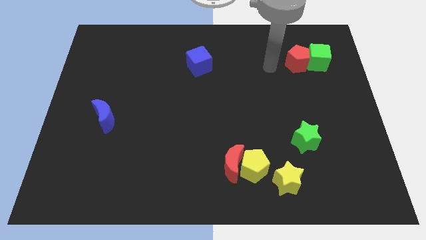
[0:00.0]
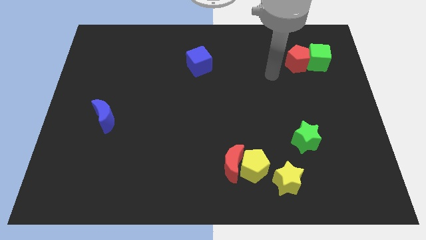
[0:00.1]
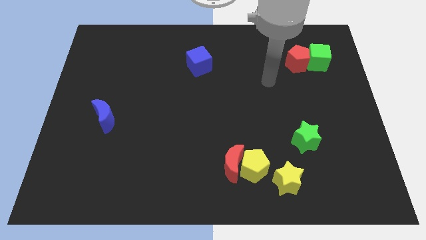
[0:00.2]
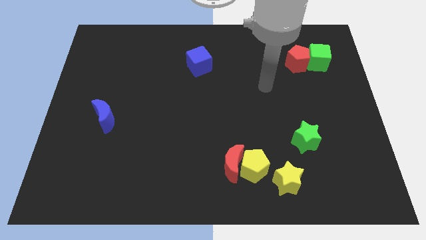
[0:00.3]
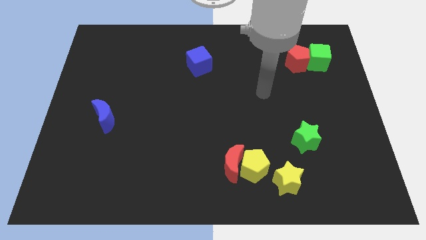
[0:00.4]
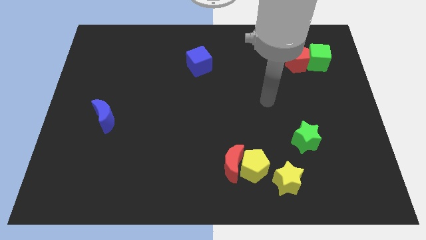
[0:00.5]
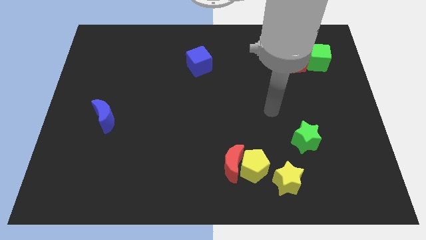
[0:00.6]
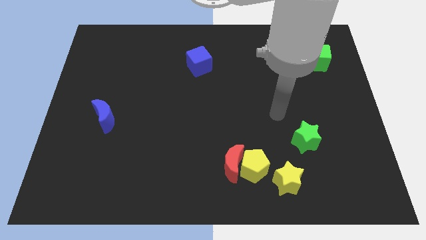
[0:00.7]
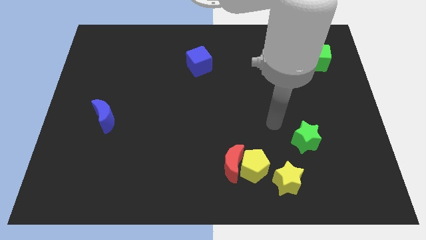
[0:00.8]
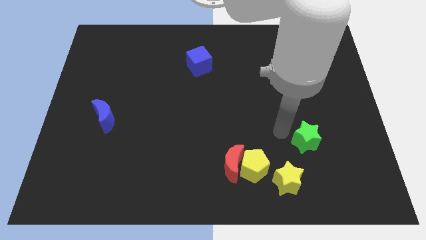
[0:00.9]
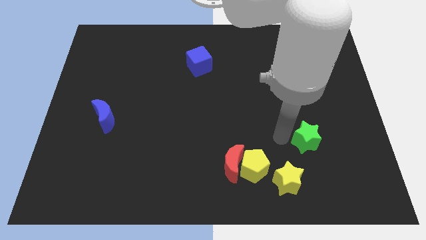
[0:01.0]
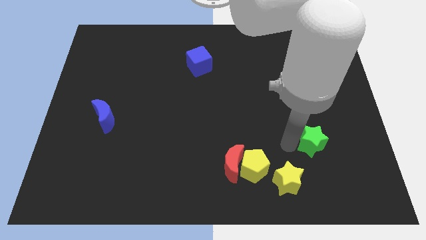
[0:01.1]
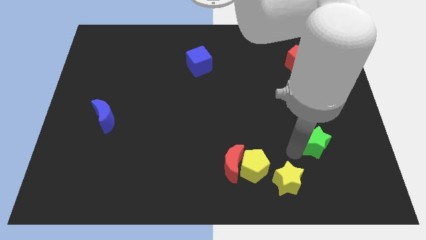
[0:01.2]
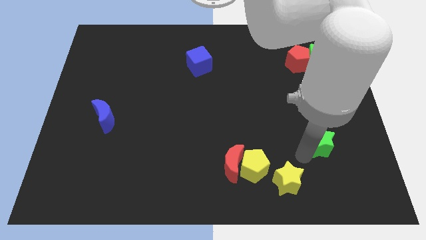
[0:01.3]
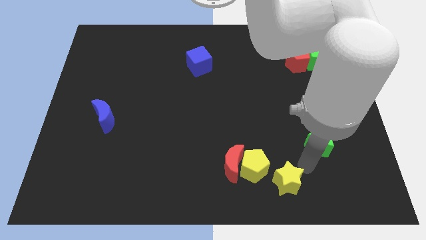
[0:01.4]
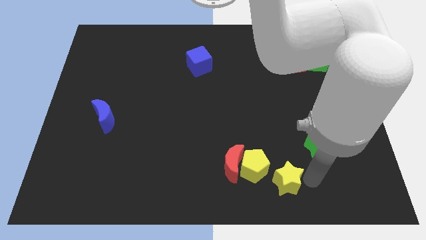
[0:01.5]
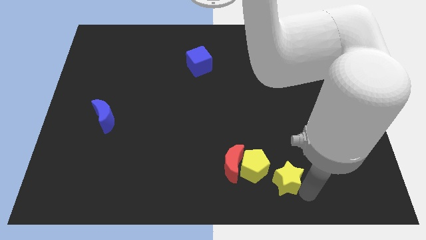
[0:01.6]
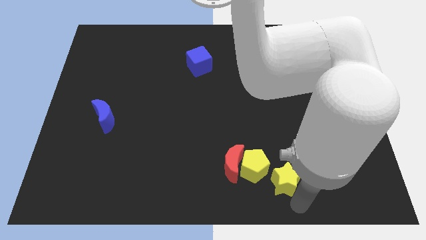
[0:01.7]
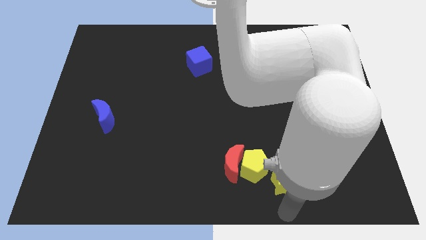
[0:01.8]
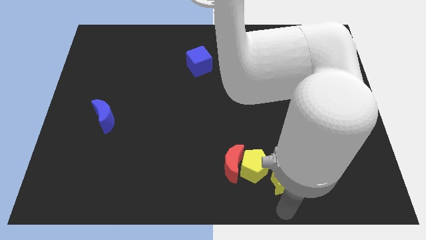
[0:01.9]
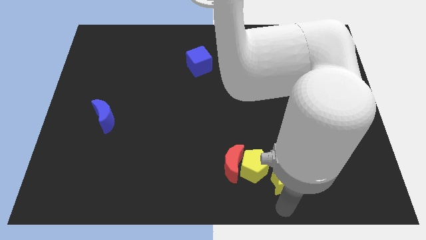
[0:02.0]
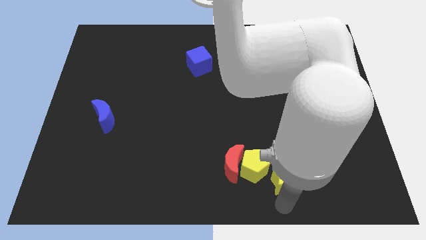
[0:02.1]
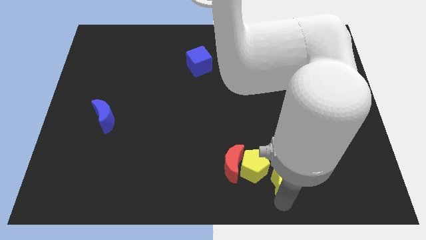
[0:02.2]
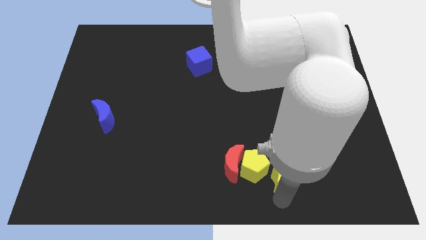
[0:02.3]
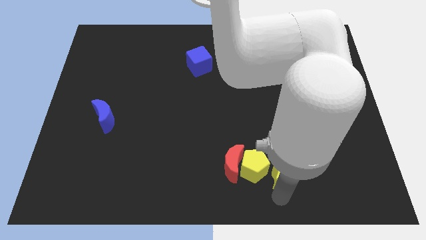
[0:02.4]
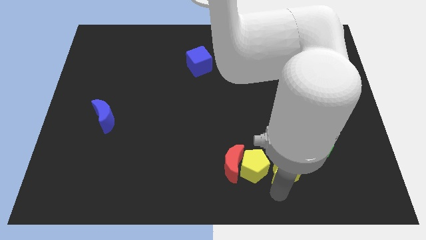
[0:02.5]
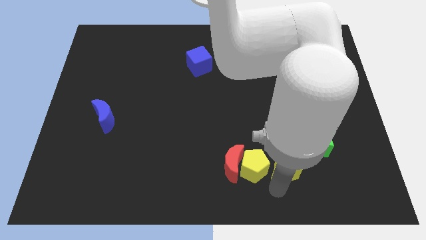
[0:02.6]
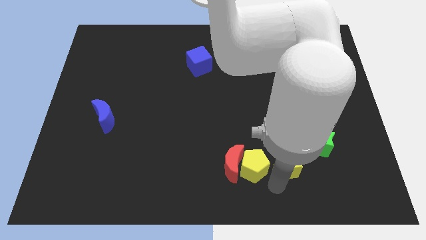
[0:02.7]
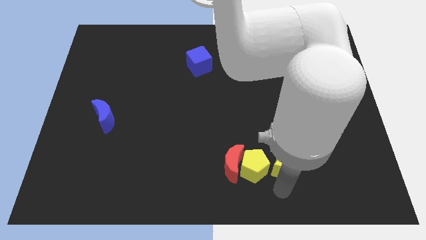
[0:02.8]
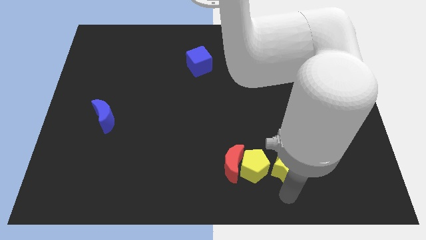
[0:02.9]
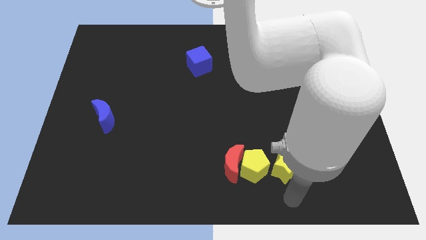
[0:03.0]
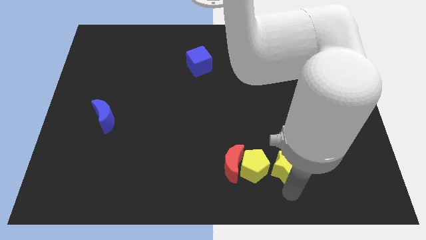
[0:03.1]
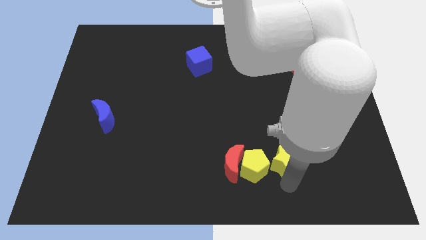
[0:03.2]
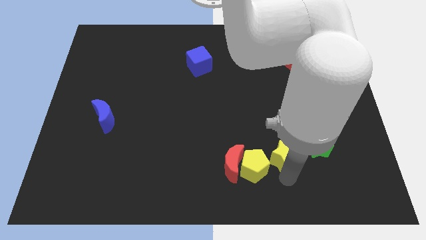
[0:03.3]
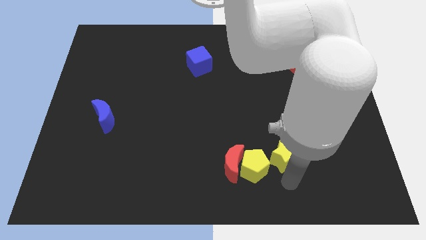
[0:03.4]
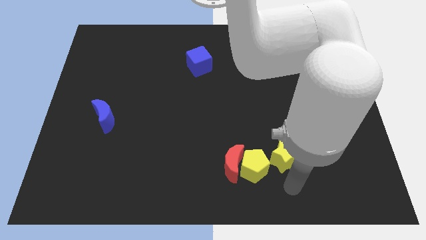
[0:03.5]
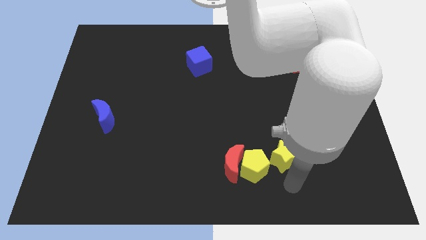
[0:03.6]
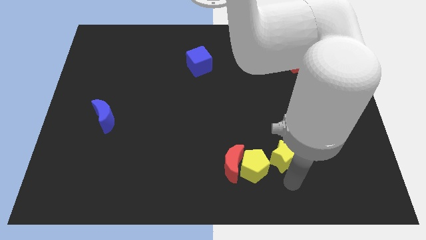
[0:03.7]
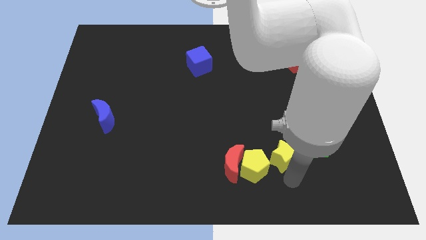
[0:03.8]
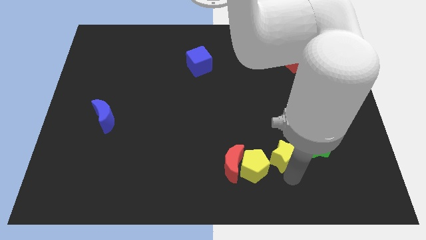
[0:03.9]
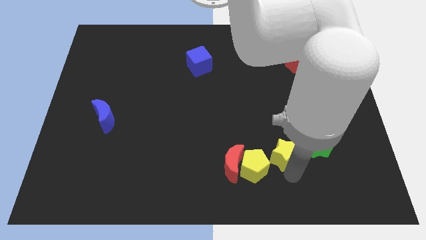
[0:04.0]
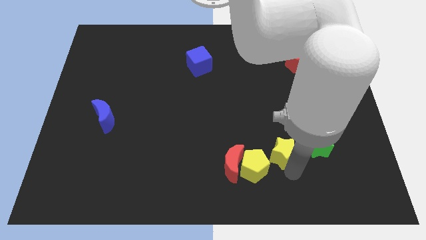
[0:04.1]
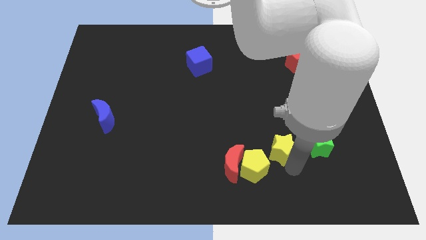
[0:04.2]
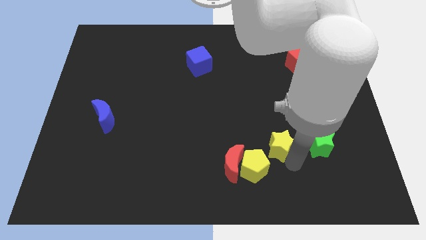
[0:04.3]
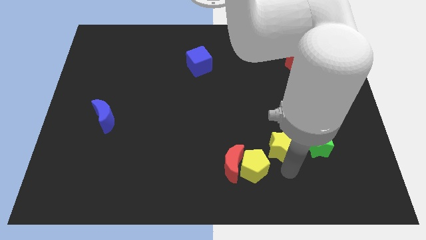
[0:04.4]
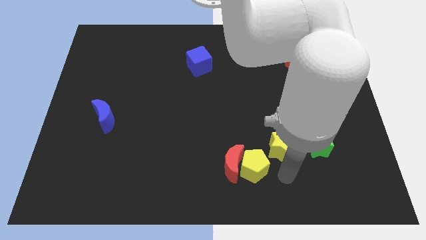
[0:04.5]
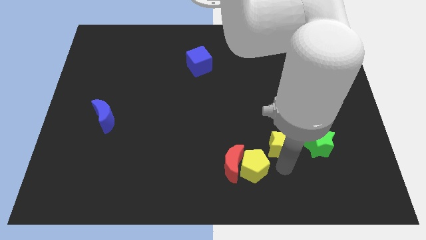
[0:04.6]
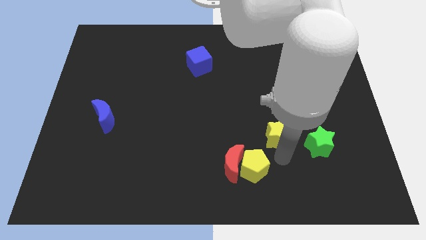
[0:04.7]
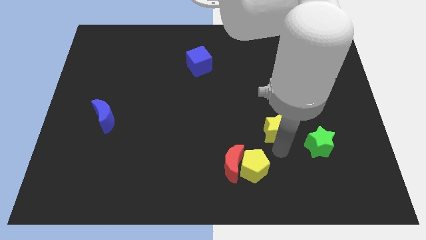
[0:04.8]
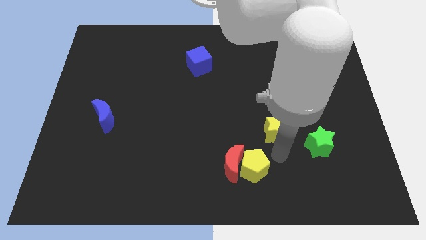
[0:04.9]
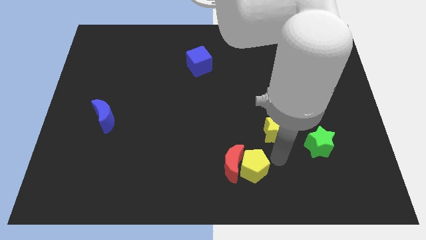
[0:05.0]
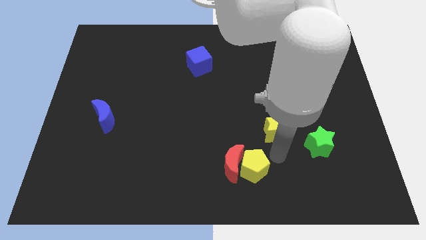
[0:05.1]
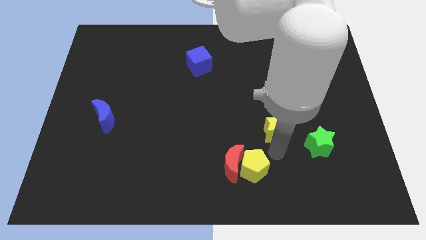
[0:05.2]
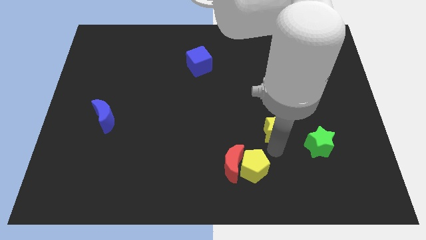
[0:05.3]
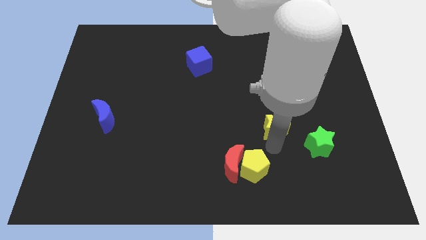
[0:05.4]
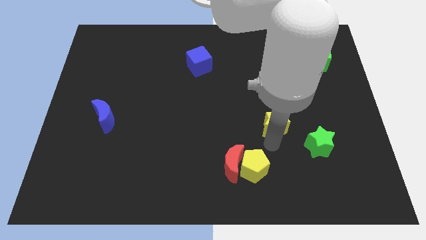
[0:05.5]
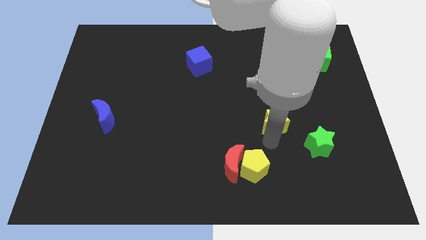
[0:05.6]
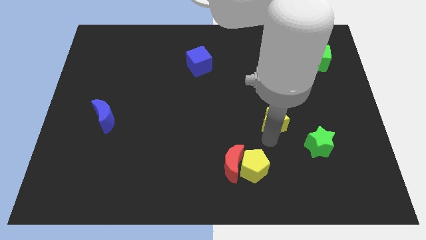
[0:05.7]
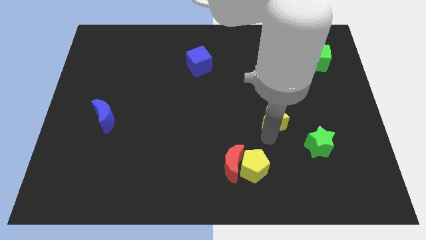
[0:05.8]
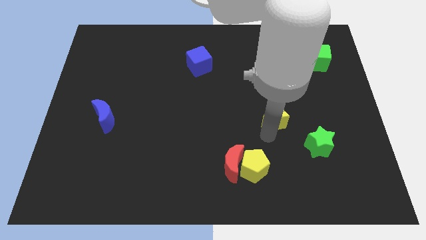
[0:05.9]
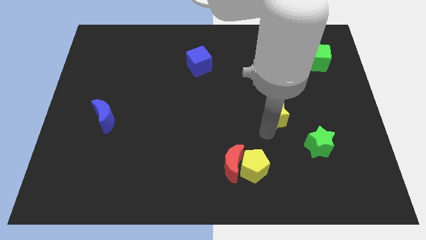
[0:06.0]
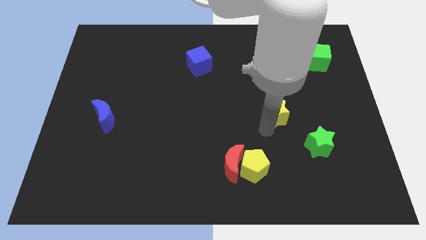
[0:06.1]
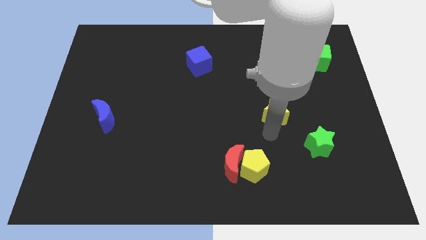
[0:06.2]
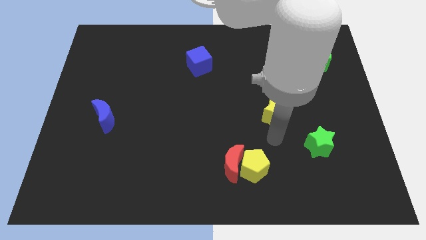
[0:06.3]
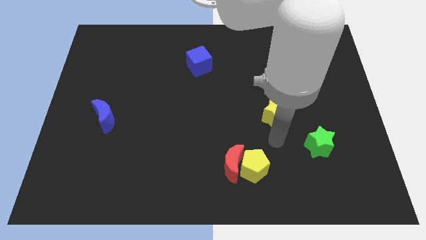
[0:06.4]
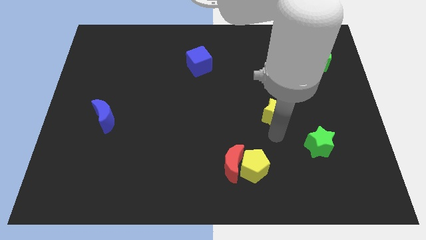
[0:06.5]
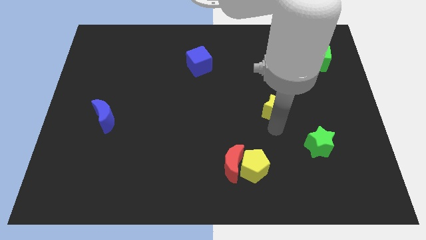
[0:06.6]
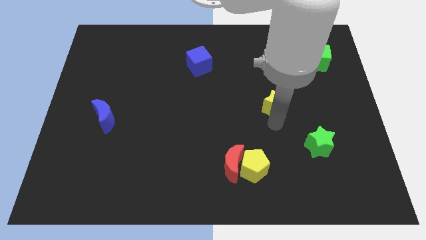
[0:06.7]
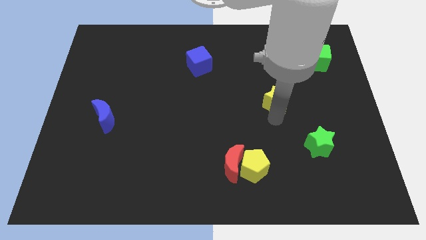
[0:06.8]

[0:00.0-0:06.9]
push the yellow star up

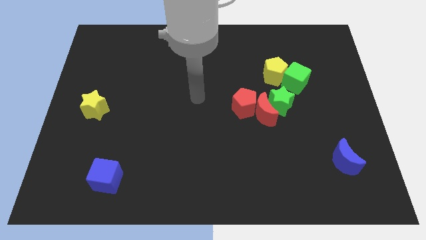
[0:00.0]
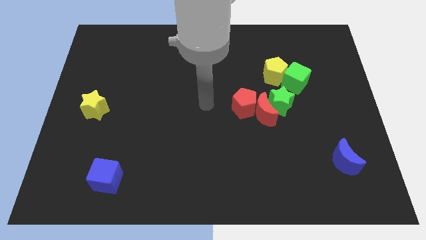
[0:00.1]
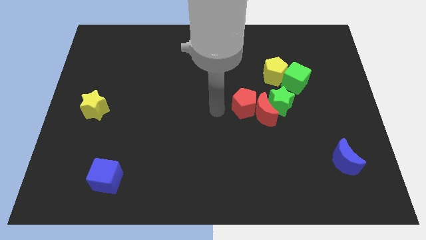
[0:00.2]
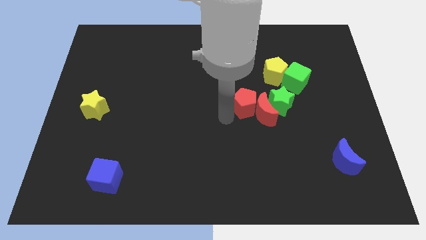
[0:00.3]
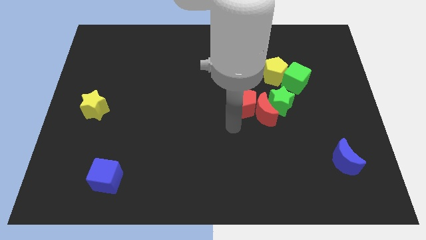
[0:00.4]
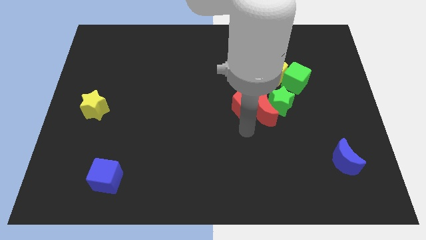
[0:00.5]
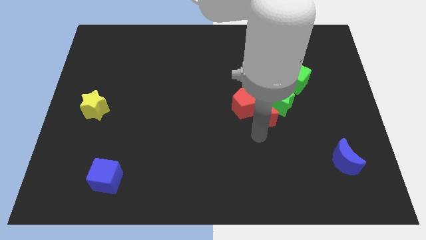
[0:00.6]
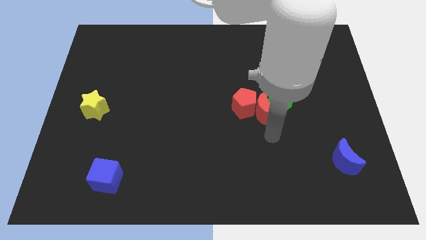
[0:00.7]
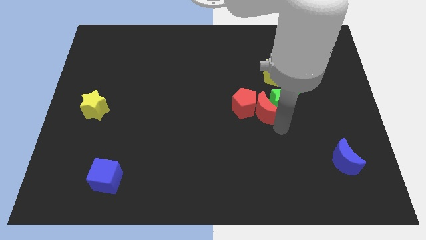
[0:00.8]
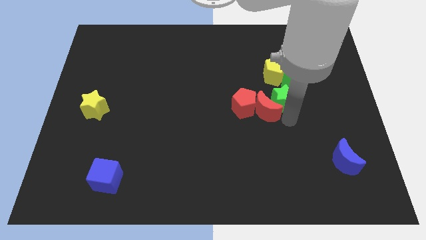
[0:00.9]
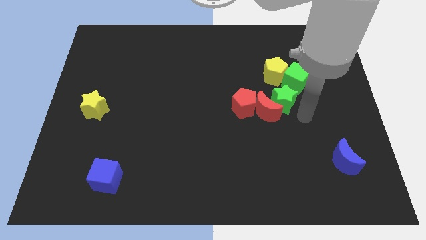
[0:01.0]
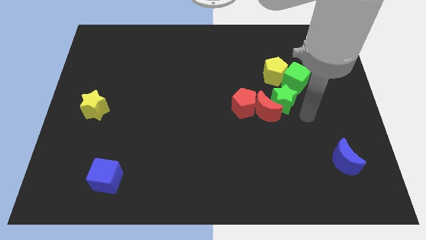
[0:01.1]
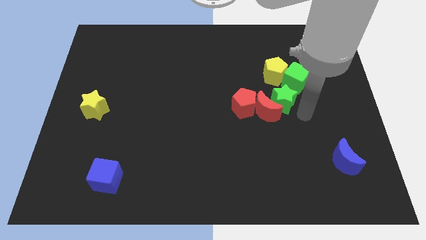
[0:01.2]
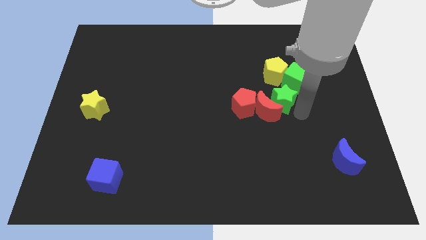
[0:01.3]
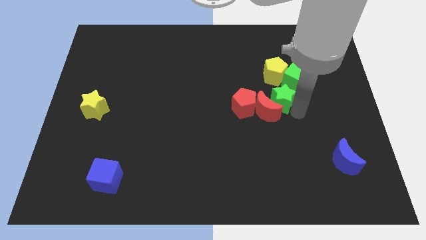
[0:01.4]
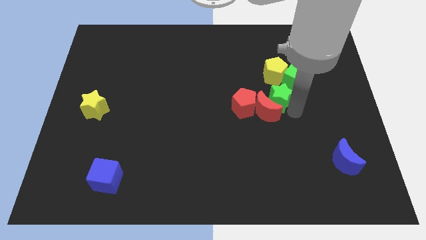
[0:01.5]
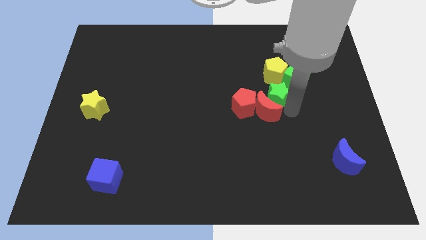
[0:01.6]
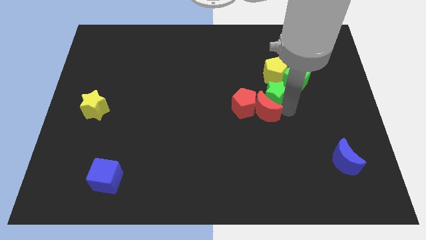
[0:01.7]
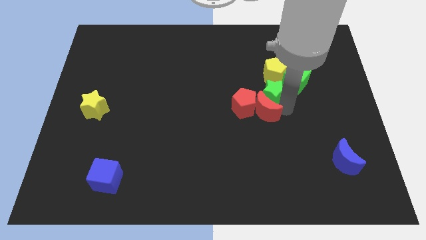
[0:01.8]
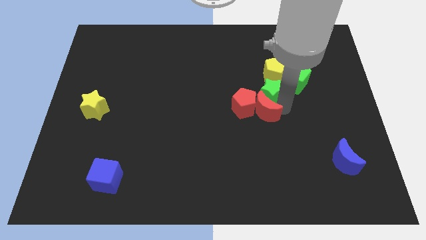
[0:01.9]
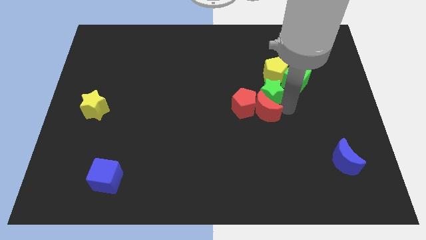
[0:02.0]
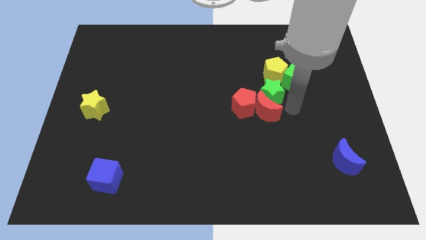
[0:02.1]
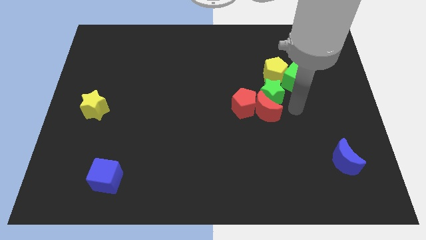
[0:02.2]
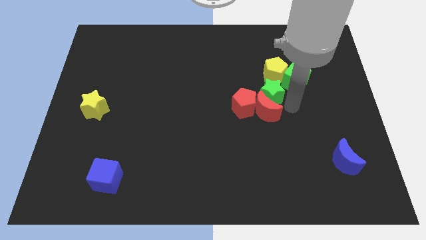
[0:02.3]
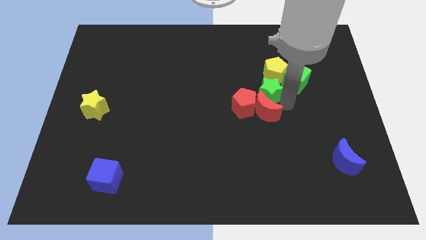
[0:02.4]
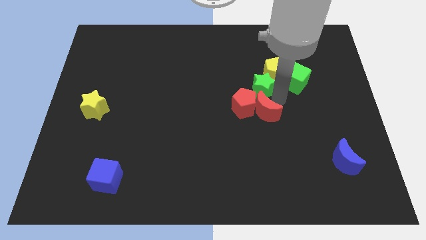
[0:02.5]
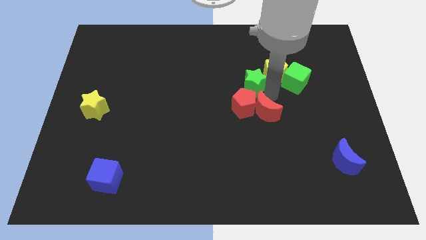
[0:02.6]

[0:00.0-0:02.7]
push the green star a bit upwards and then left
